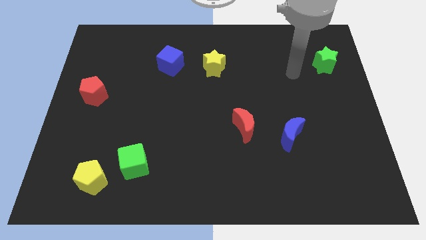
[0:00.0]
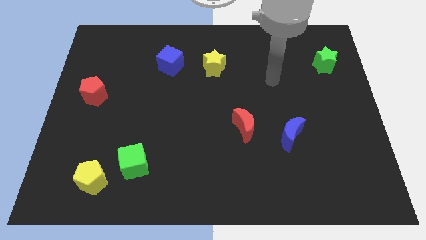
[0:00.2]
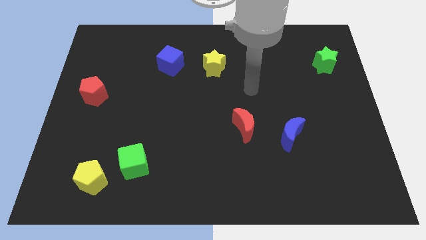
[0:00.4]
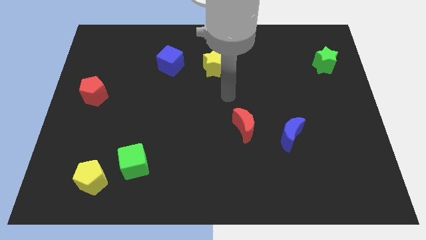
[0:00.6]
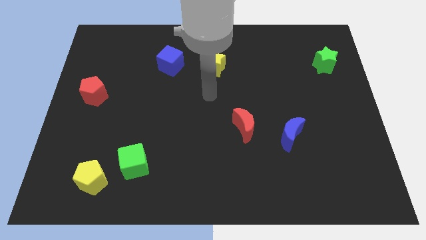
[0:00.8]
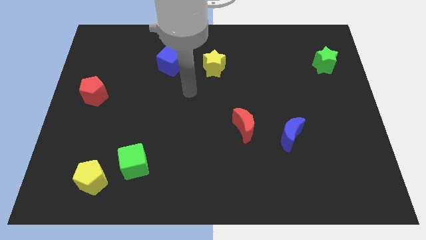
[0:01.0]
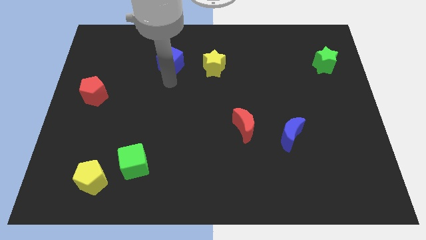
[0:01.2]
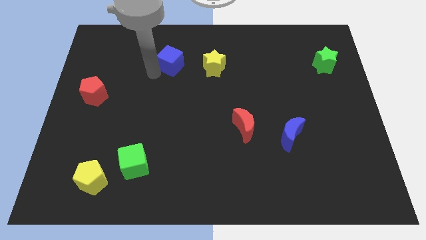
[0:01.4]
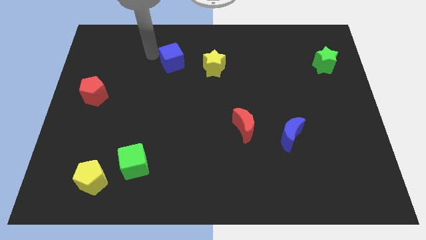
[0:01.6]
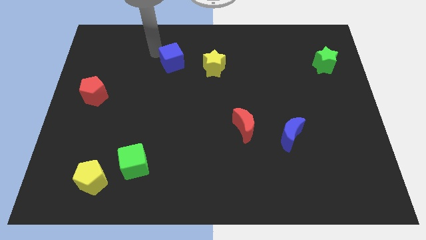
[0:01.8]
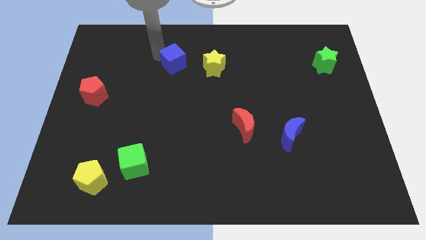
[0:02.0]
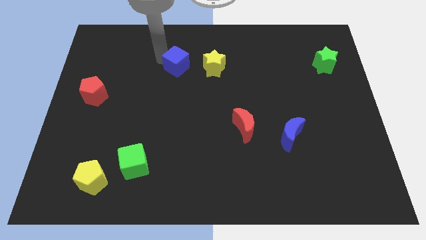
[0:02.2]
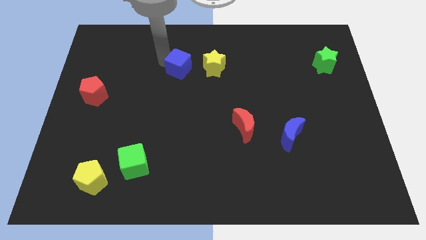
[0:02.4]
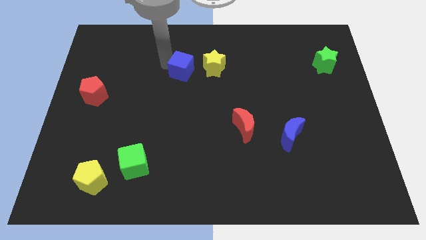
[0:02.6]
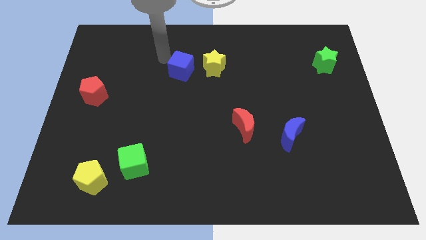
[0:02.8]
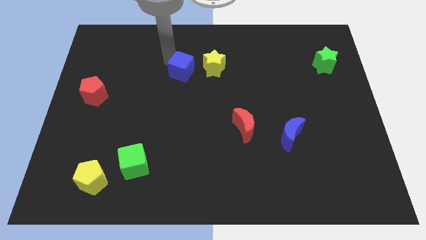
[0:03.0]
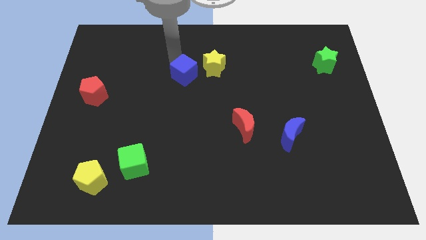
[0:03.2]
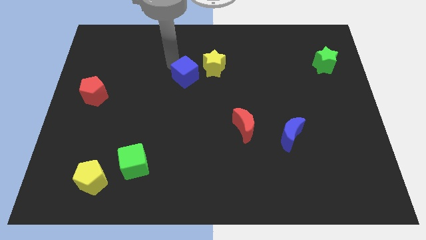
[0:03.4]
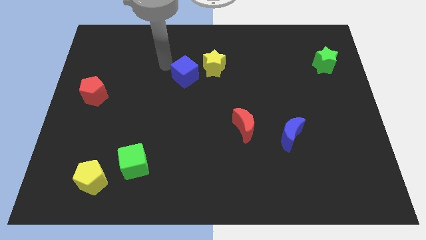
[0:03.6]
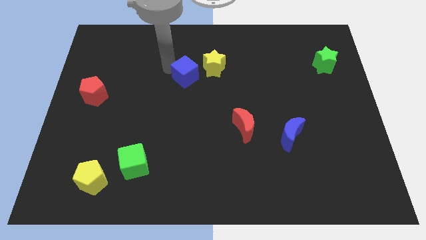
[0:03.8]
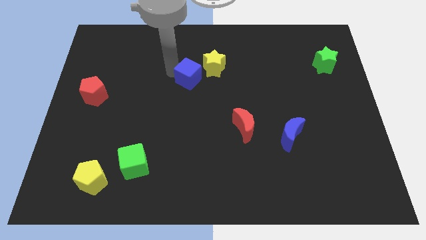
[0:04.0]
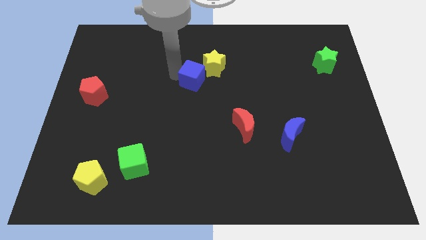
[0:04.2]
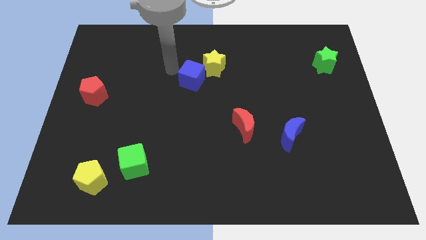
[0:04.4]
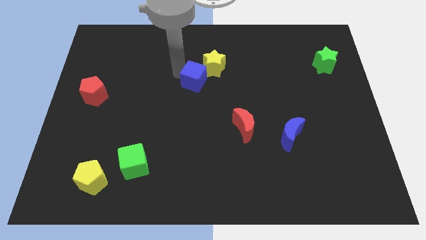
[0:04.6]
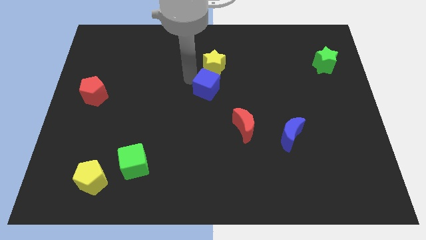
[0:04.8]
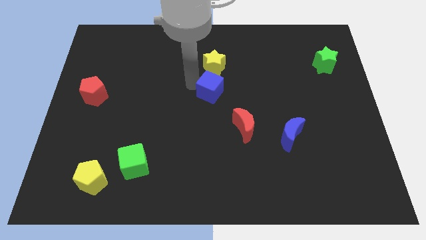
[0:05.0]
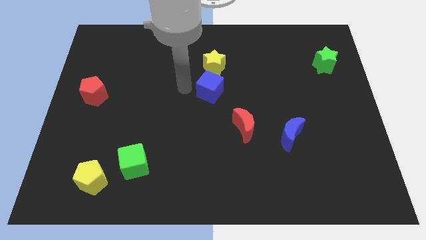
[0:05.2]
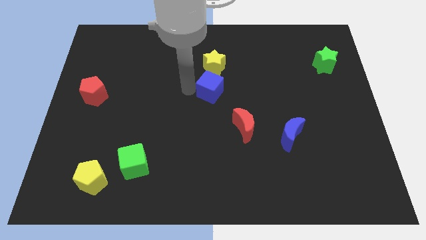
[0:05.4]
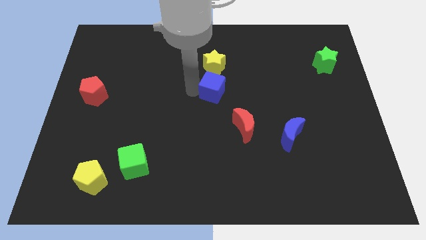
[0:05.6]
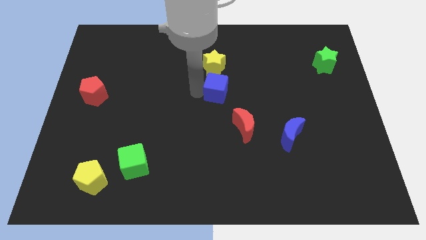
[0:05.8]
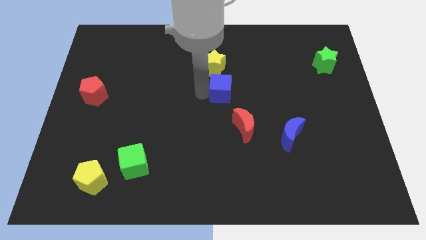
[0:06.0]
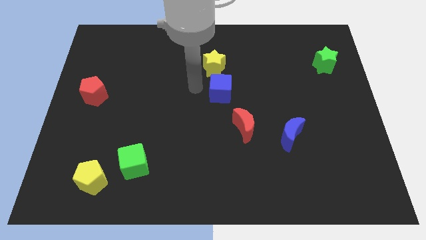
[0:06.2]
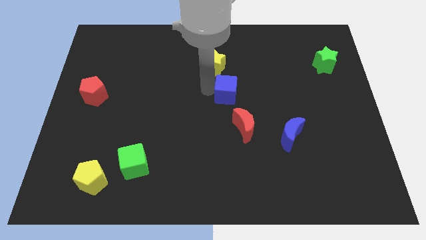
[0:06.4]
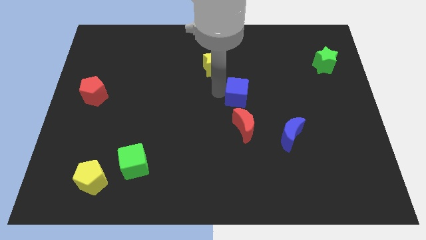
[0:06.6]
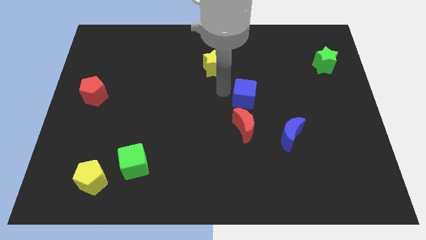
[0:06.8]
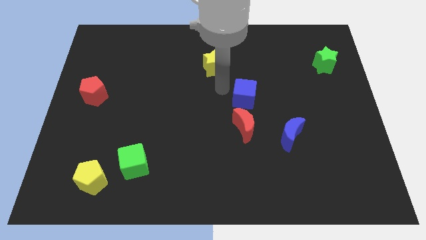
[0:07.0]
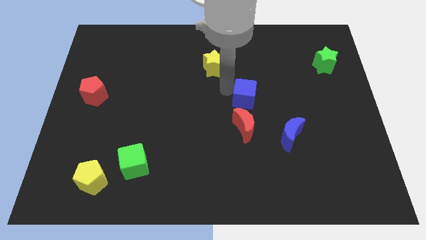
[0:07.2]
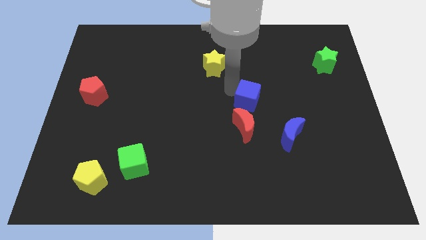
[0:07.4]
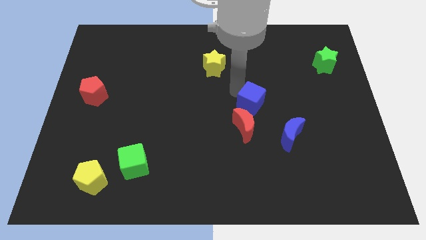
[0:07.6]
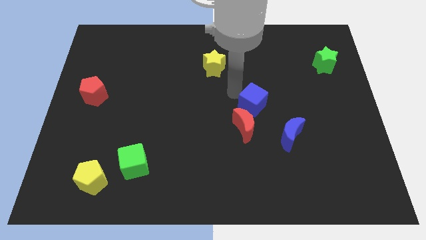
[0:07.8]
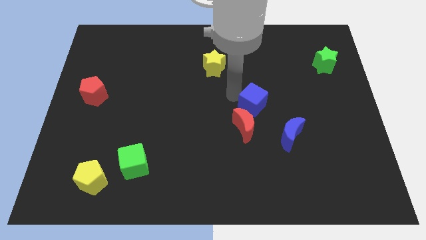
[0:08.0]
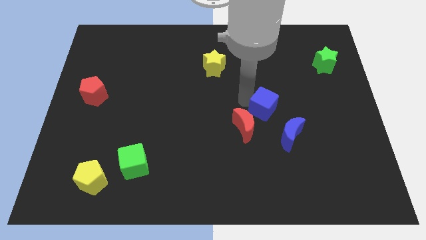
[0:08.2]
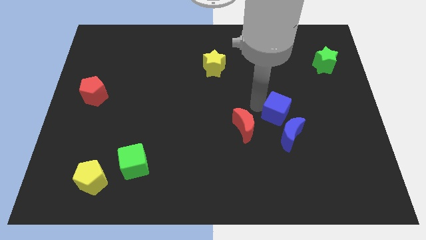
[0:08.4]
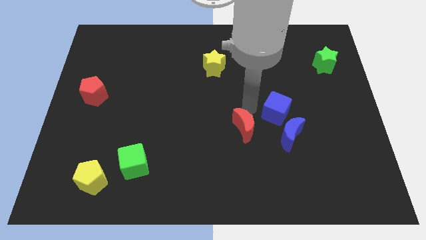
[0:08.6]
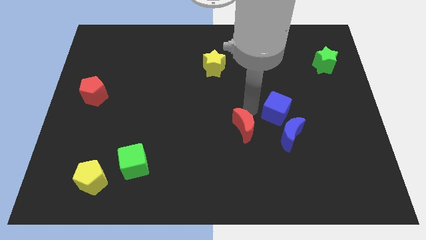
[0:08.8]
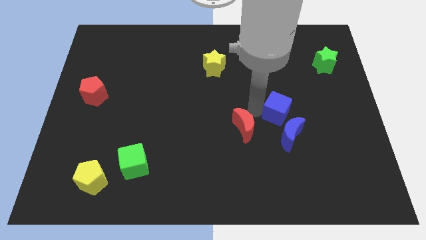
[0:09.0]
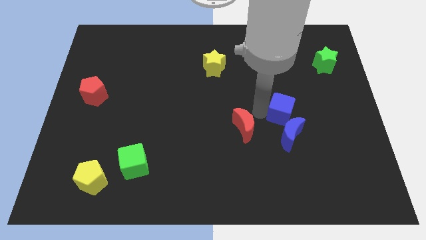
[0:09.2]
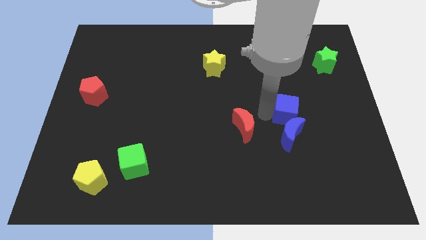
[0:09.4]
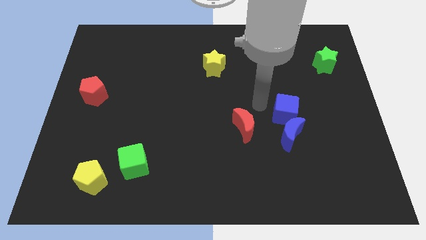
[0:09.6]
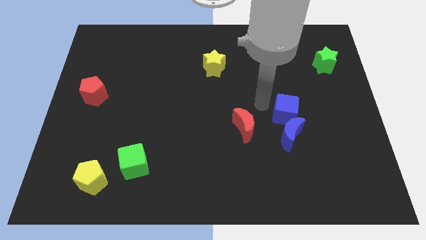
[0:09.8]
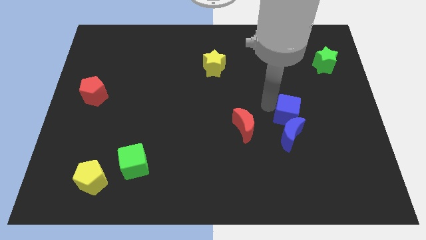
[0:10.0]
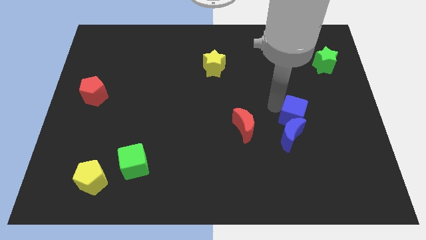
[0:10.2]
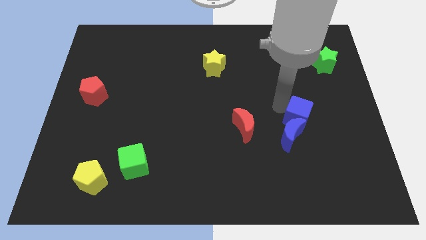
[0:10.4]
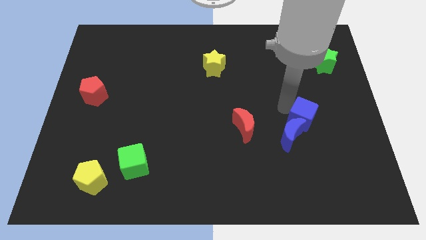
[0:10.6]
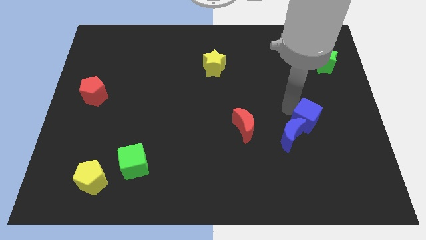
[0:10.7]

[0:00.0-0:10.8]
put the blue cube just right of the blue moon

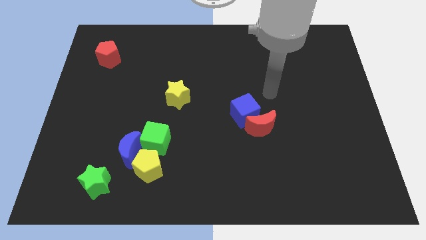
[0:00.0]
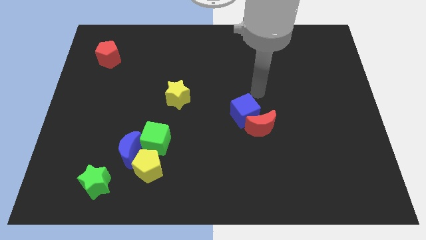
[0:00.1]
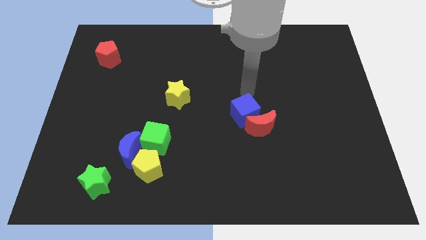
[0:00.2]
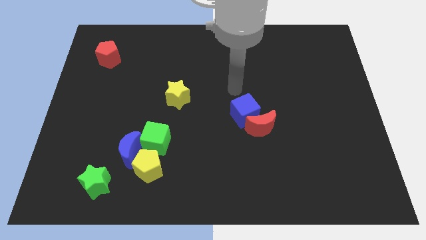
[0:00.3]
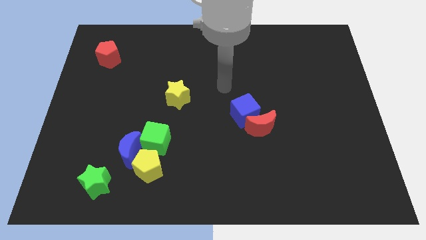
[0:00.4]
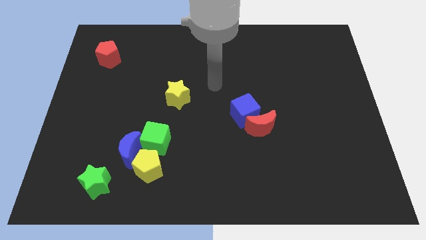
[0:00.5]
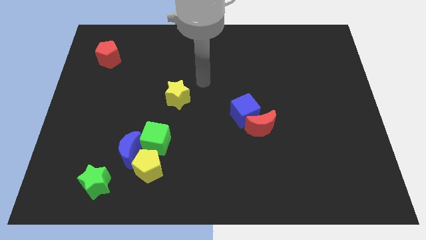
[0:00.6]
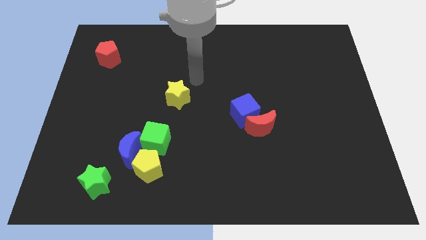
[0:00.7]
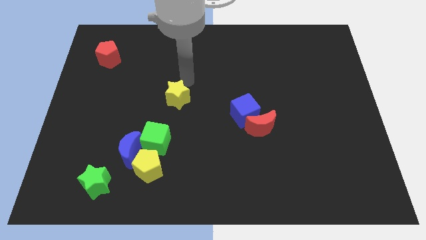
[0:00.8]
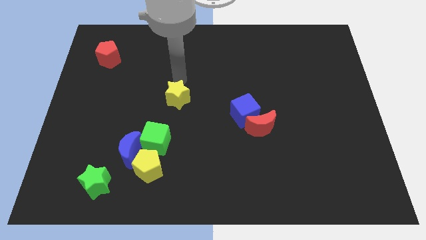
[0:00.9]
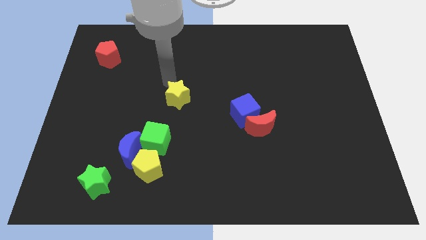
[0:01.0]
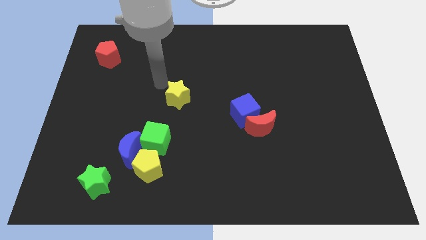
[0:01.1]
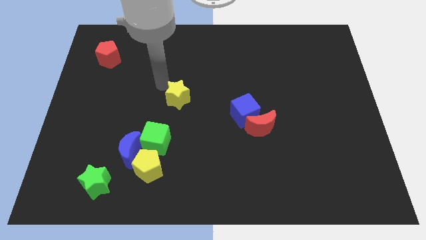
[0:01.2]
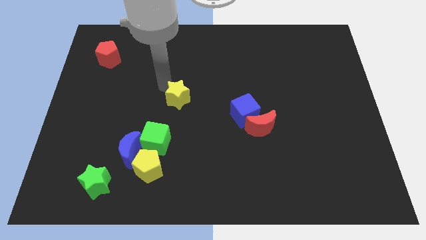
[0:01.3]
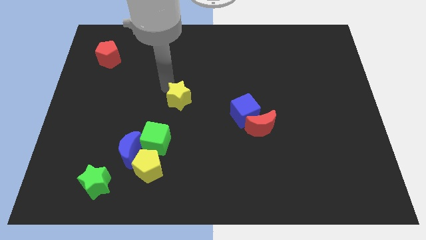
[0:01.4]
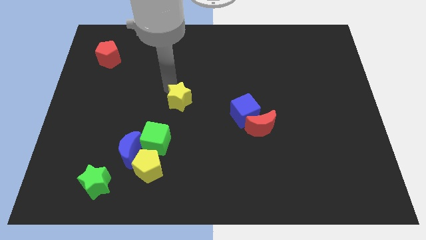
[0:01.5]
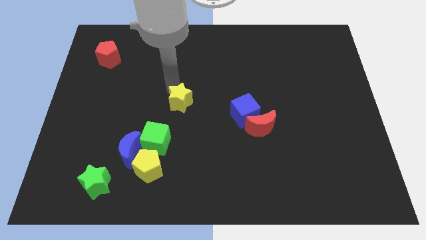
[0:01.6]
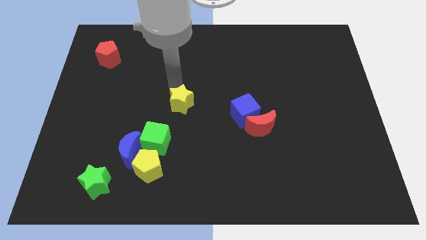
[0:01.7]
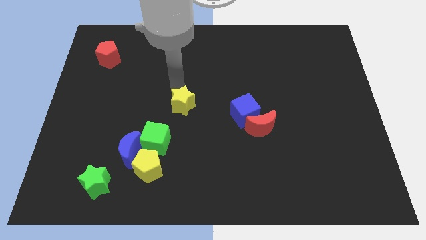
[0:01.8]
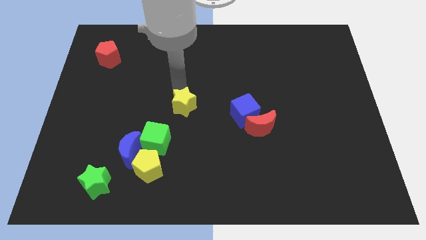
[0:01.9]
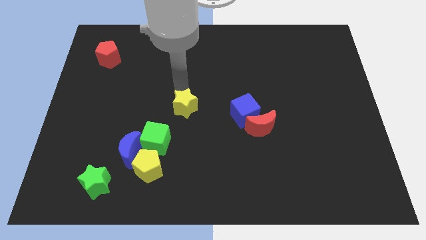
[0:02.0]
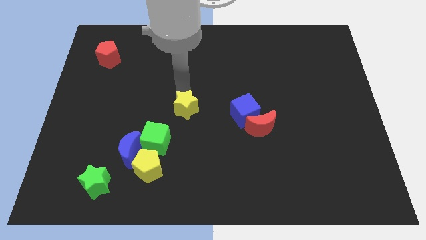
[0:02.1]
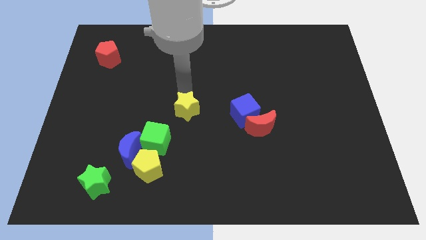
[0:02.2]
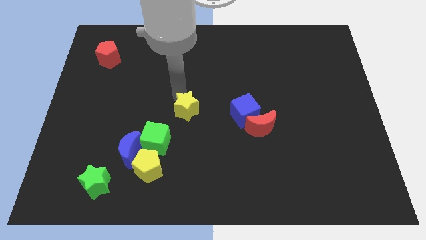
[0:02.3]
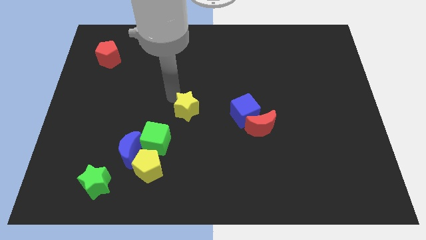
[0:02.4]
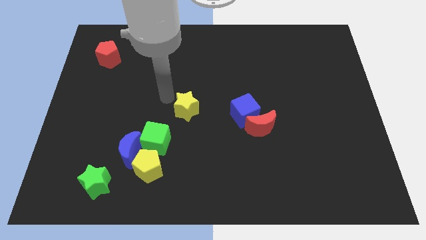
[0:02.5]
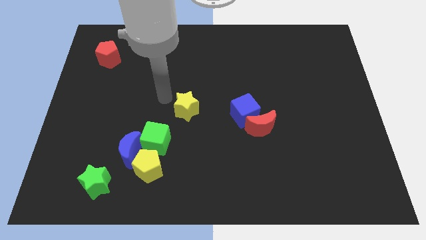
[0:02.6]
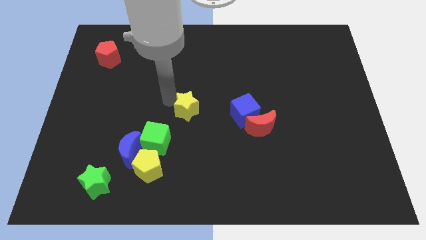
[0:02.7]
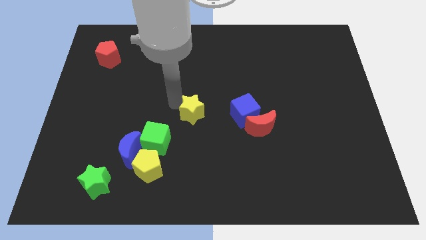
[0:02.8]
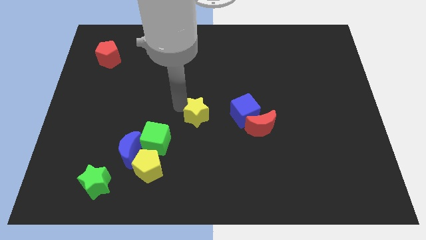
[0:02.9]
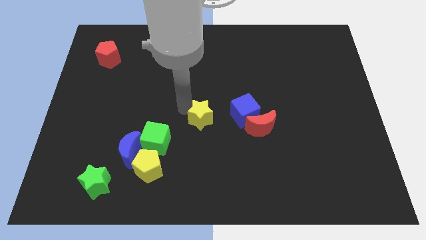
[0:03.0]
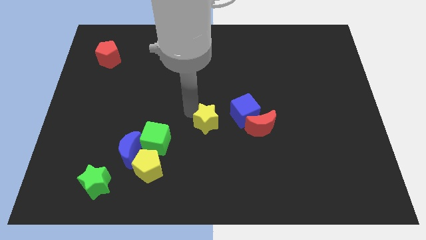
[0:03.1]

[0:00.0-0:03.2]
move the yellow star to the bottom left of the blue cube
